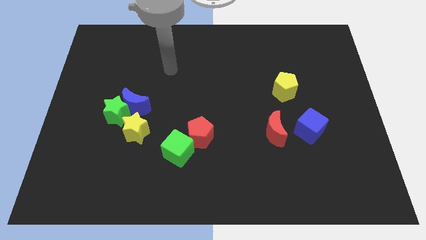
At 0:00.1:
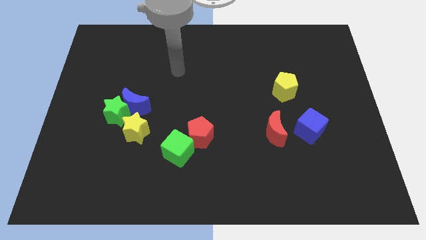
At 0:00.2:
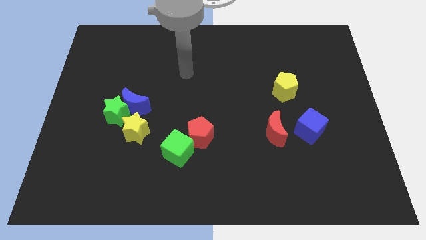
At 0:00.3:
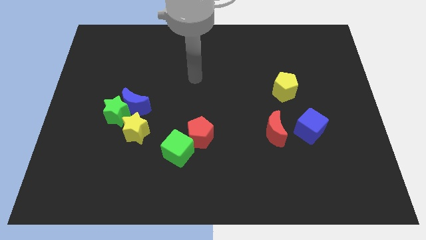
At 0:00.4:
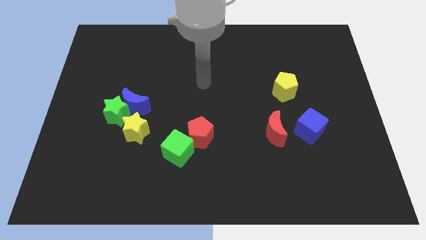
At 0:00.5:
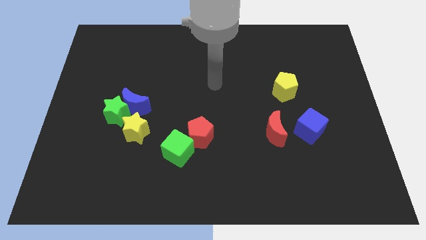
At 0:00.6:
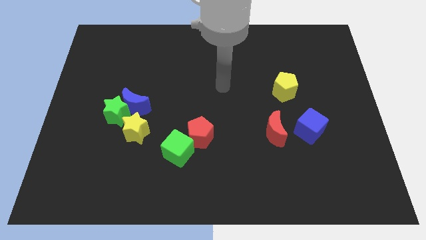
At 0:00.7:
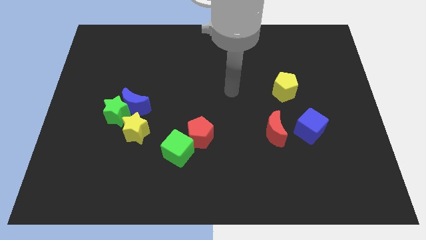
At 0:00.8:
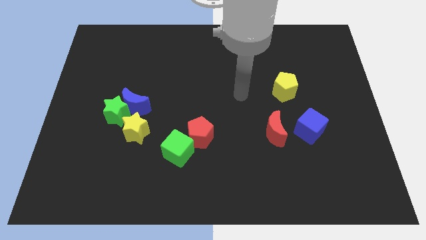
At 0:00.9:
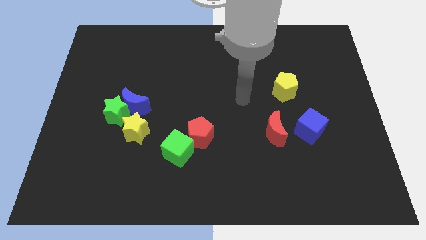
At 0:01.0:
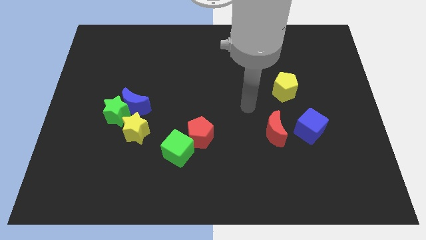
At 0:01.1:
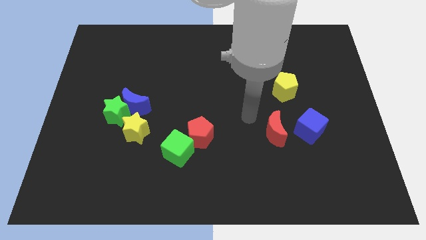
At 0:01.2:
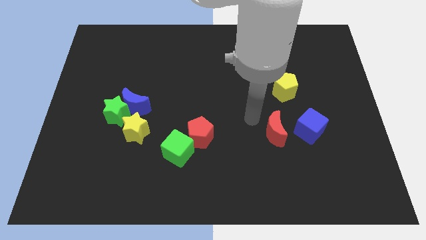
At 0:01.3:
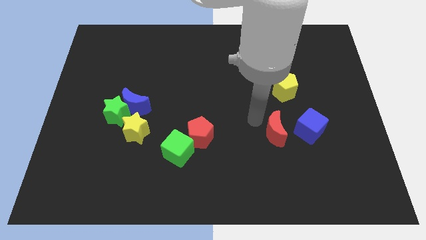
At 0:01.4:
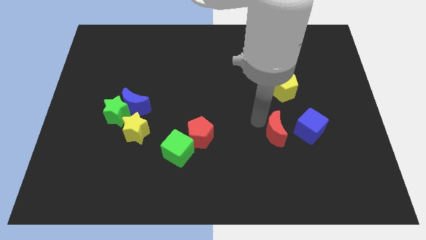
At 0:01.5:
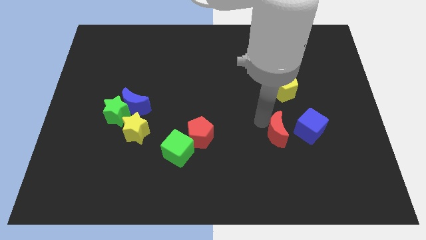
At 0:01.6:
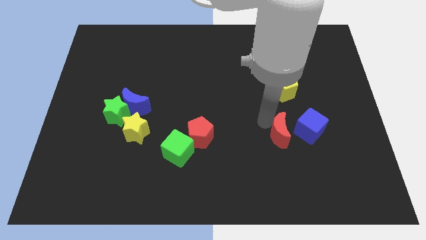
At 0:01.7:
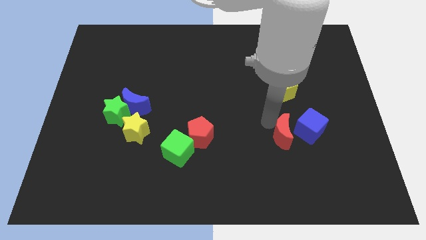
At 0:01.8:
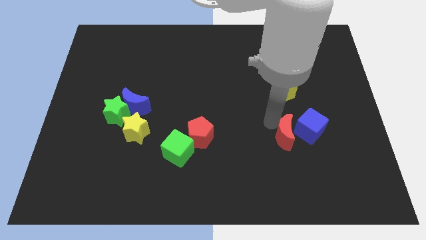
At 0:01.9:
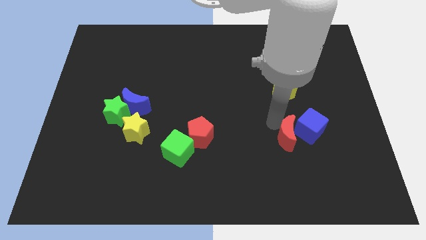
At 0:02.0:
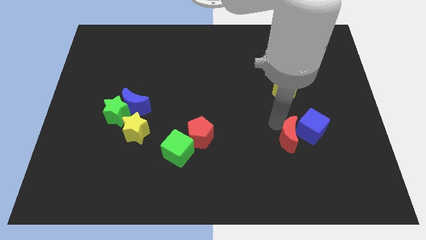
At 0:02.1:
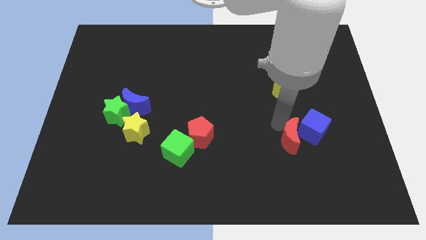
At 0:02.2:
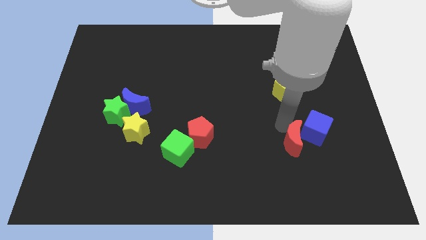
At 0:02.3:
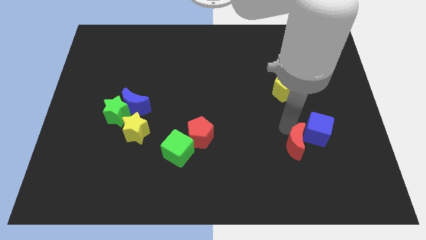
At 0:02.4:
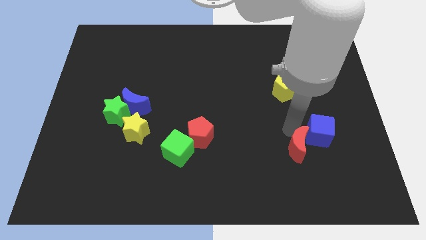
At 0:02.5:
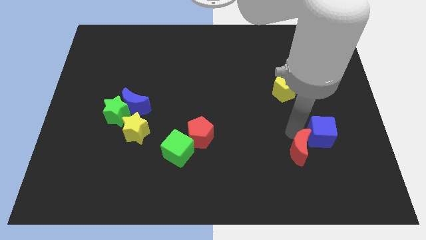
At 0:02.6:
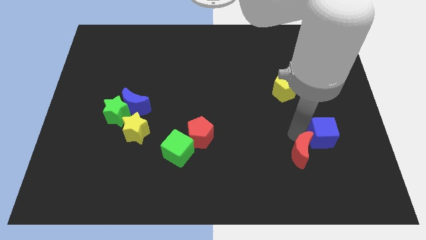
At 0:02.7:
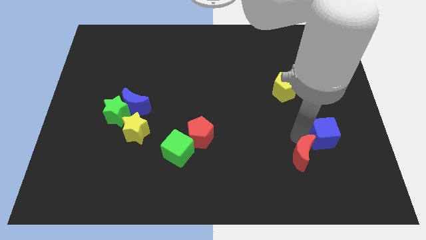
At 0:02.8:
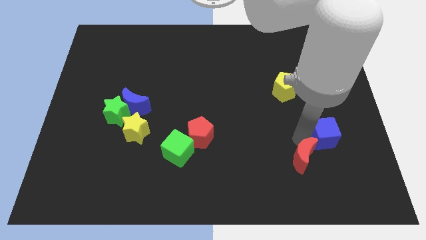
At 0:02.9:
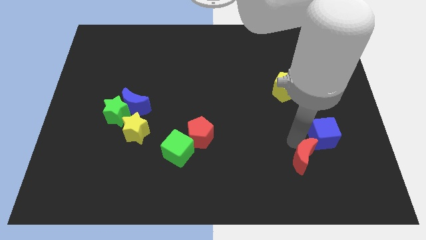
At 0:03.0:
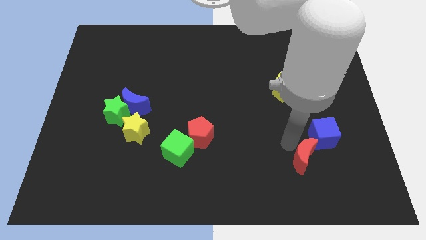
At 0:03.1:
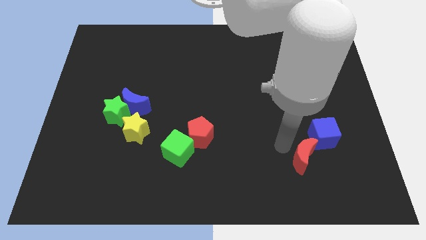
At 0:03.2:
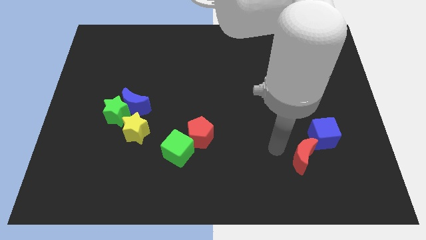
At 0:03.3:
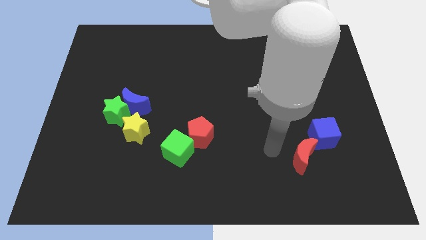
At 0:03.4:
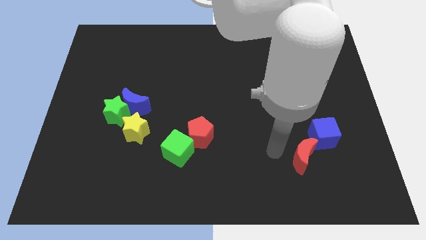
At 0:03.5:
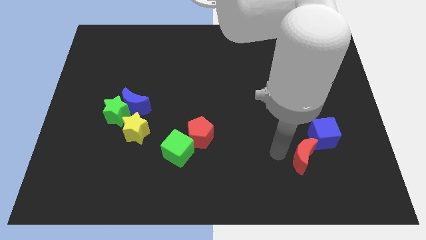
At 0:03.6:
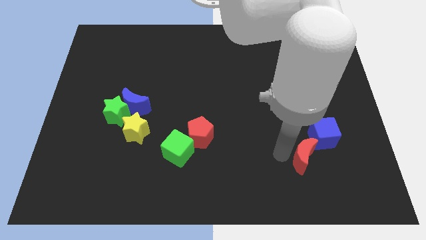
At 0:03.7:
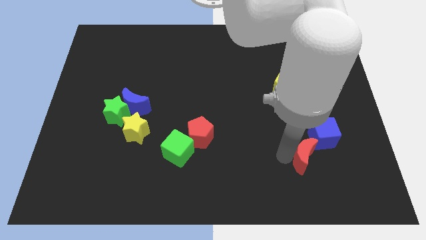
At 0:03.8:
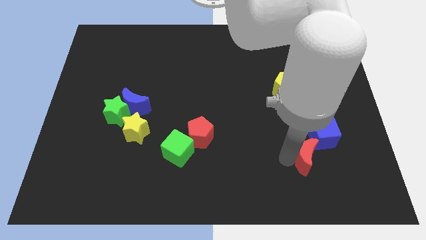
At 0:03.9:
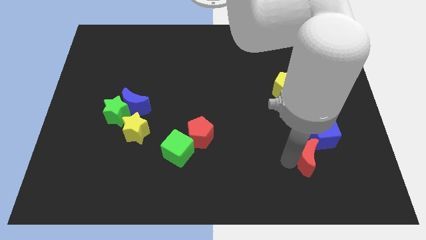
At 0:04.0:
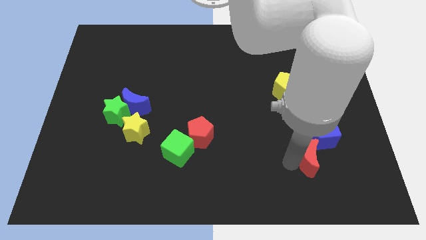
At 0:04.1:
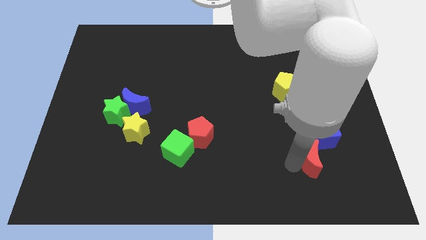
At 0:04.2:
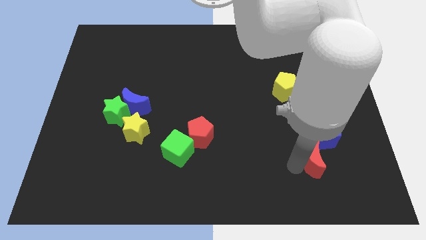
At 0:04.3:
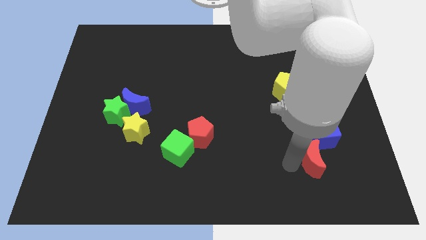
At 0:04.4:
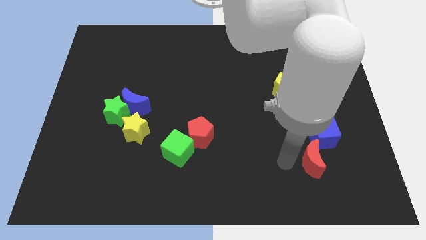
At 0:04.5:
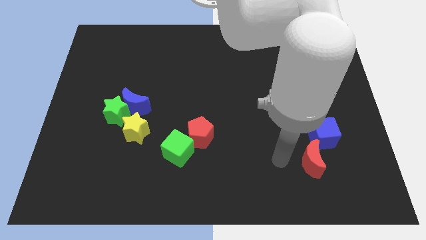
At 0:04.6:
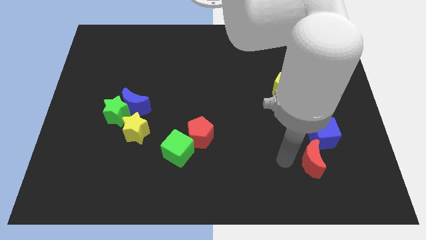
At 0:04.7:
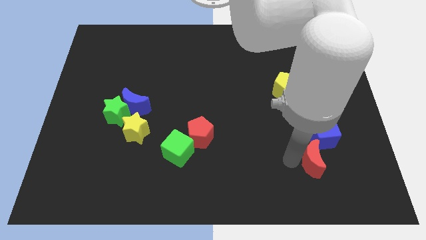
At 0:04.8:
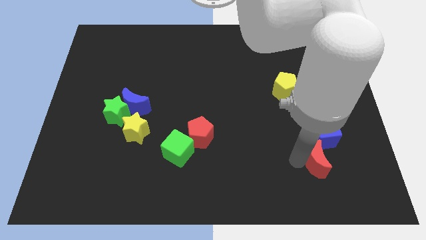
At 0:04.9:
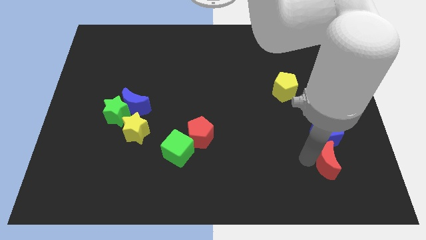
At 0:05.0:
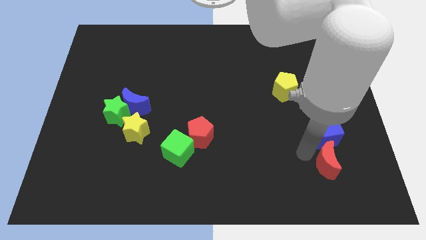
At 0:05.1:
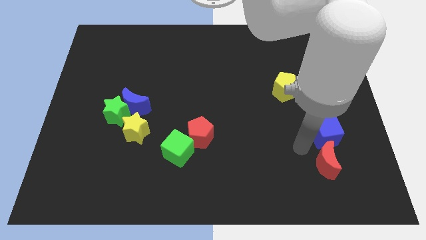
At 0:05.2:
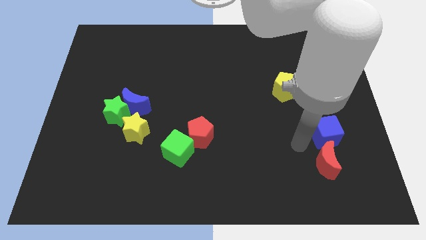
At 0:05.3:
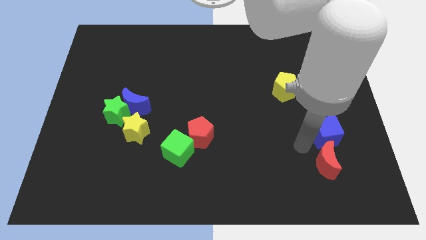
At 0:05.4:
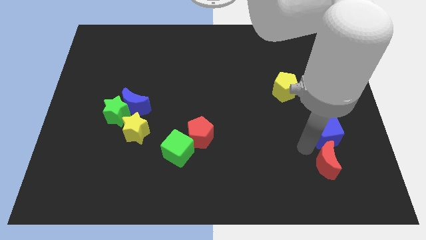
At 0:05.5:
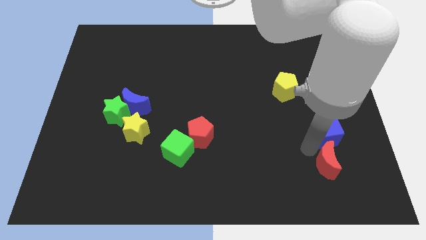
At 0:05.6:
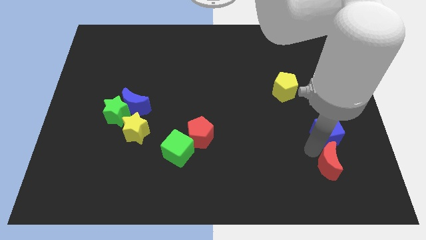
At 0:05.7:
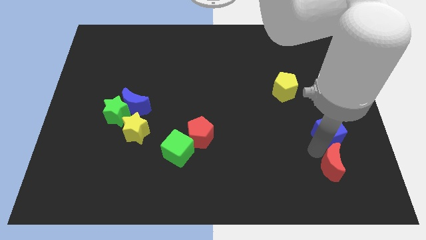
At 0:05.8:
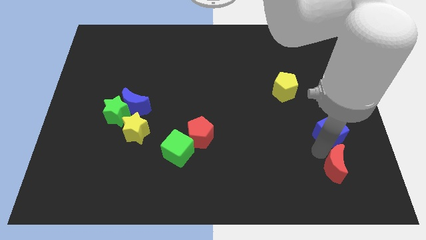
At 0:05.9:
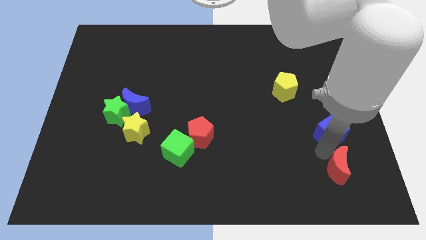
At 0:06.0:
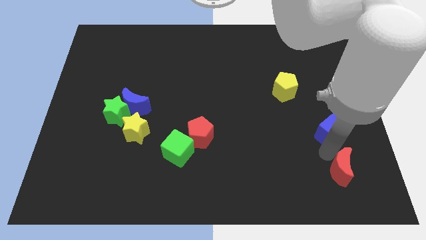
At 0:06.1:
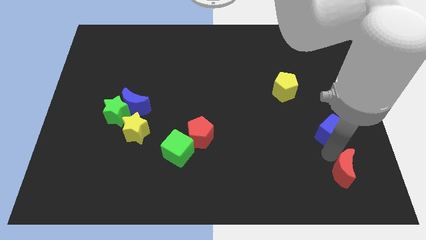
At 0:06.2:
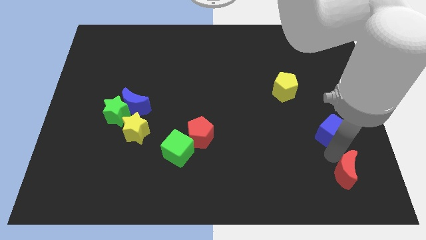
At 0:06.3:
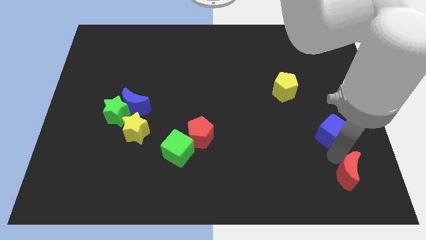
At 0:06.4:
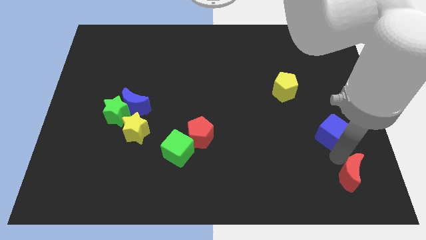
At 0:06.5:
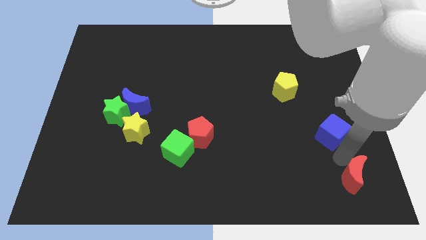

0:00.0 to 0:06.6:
move the red moon to the bottom right
